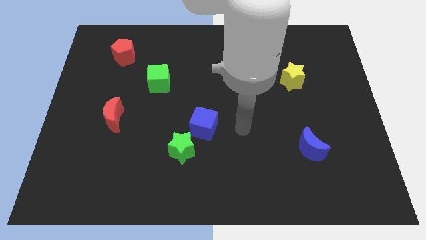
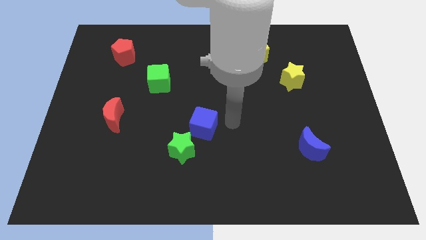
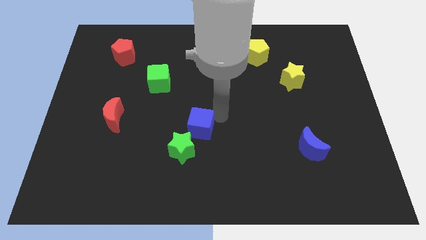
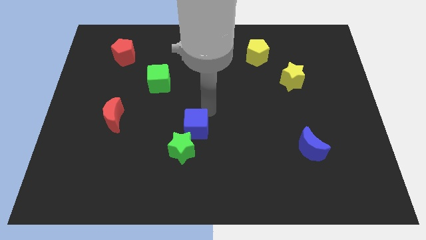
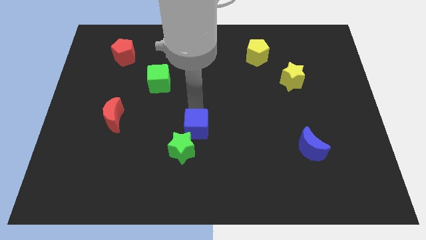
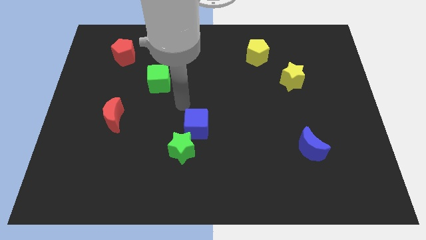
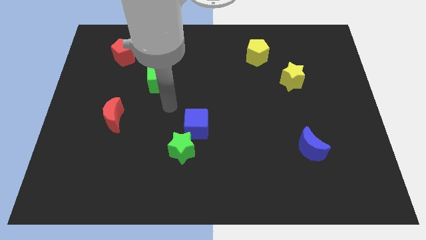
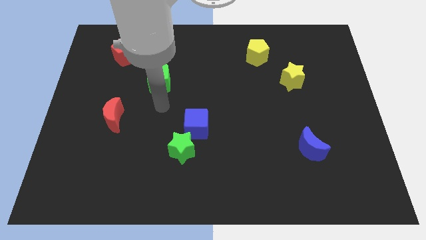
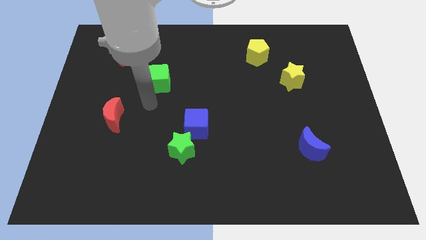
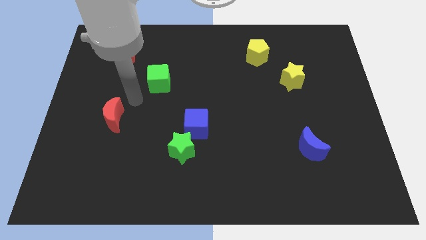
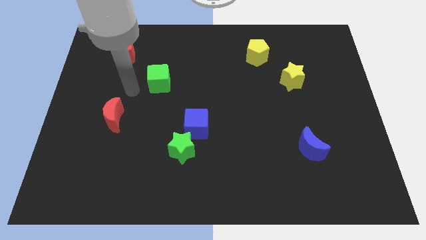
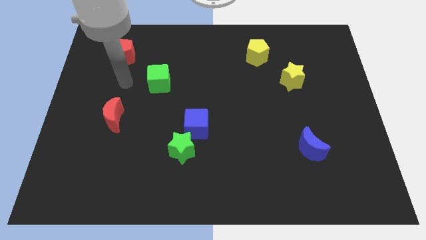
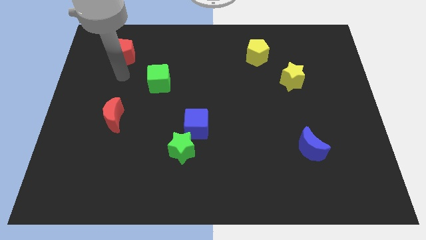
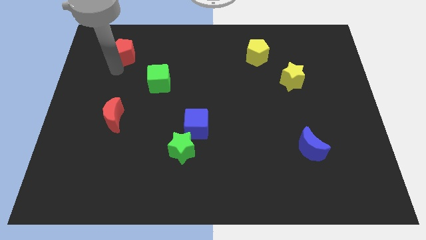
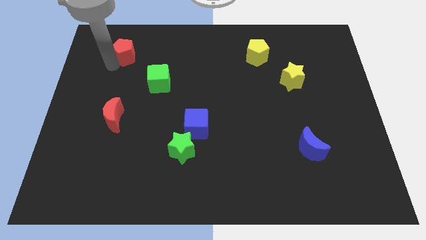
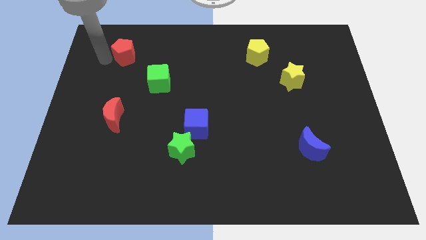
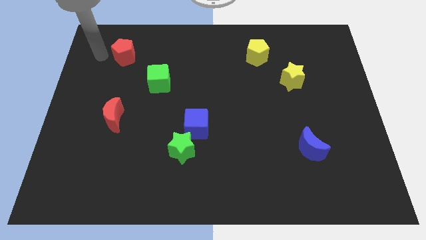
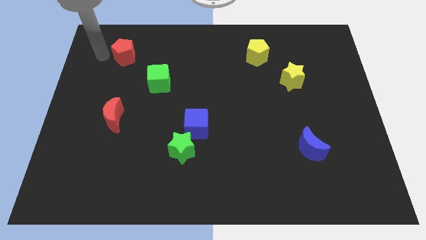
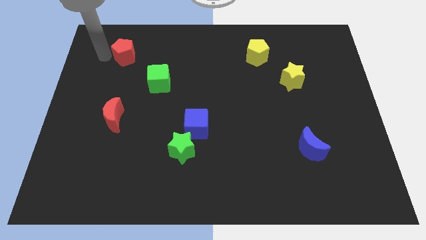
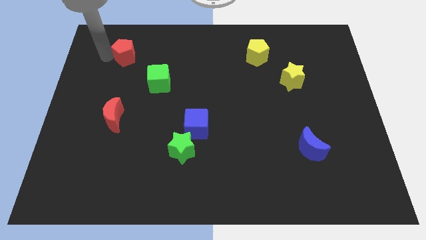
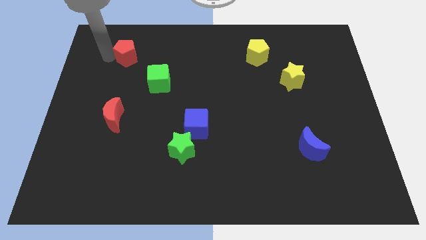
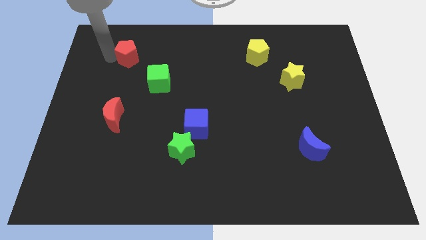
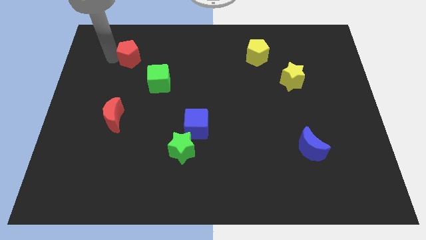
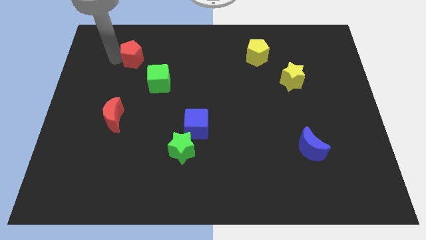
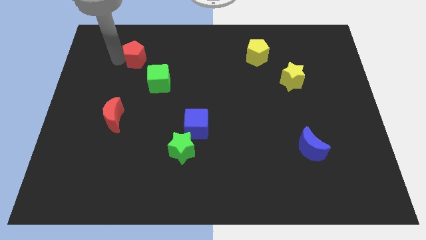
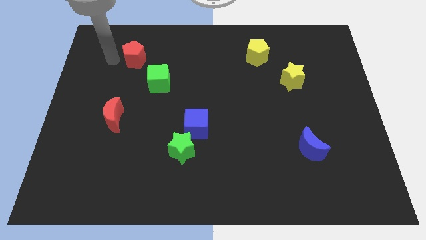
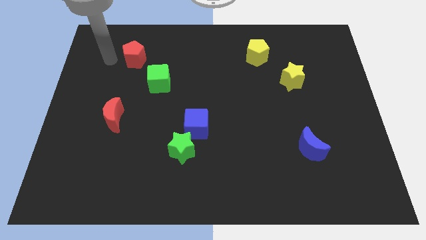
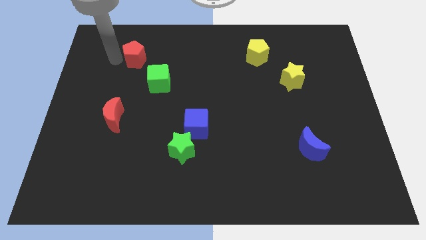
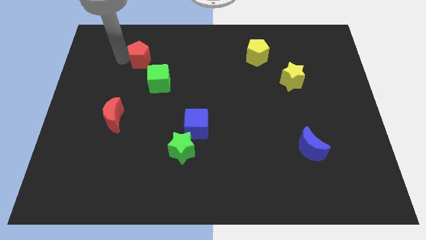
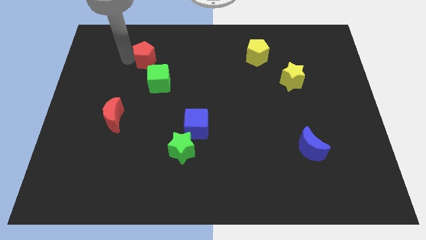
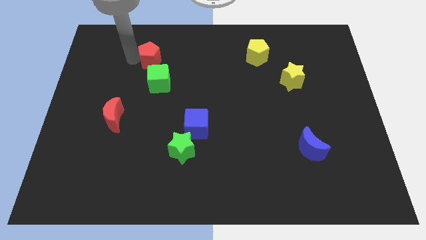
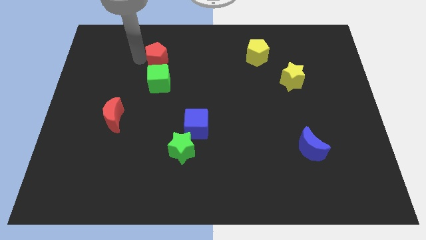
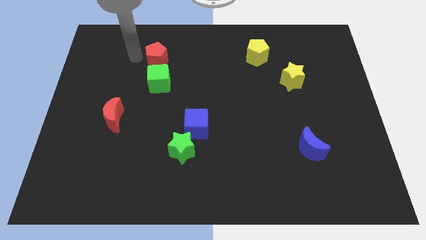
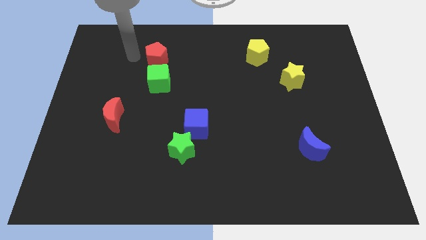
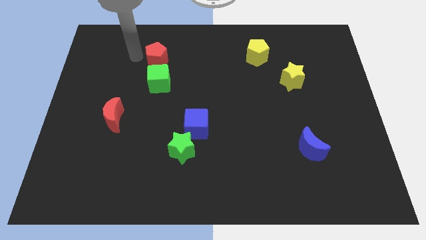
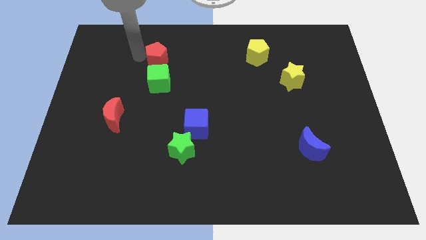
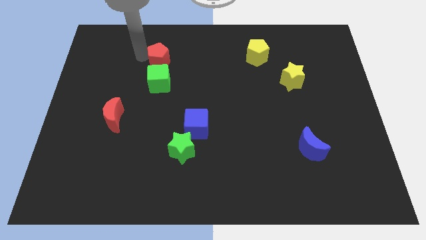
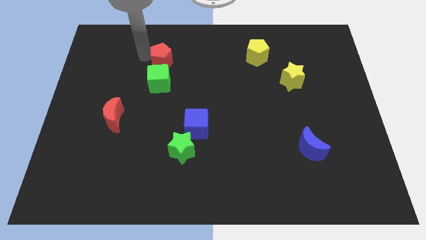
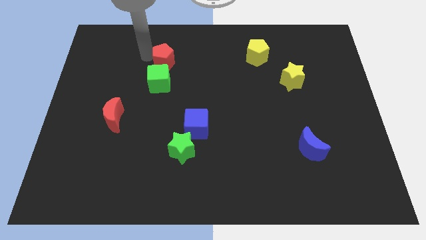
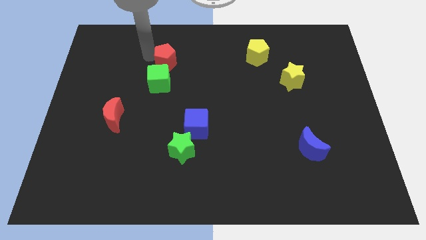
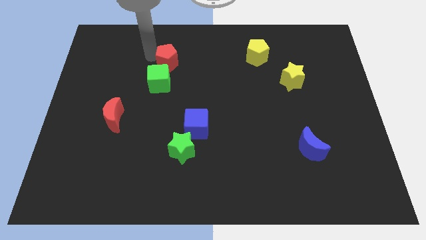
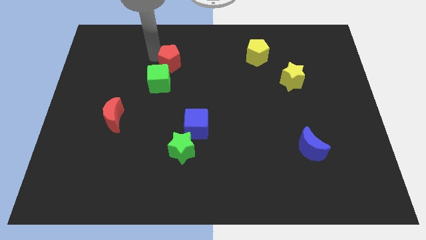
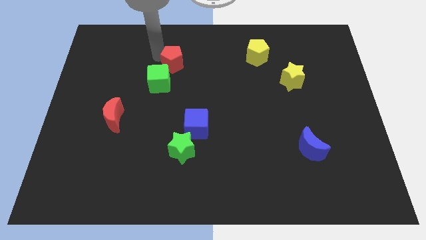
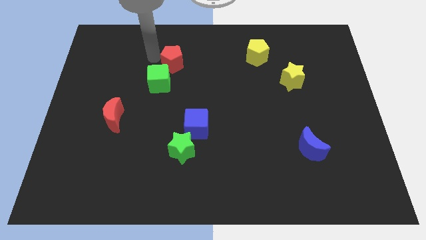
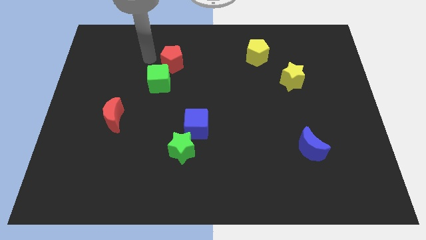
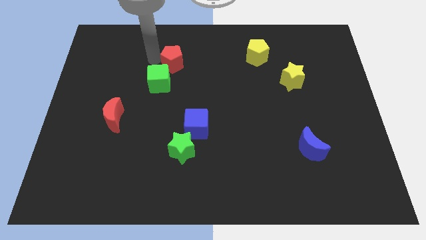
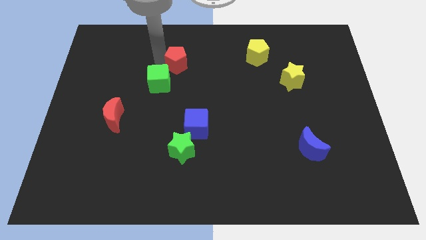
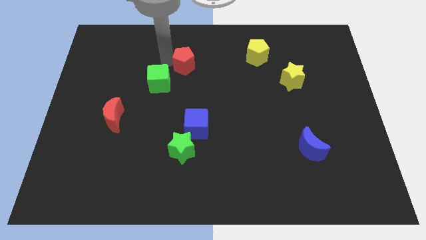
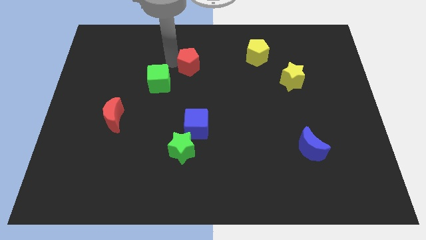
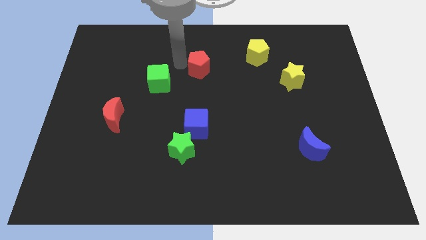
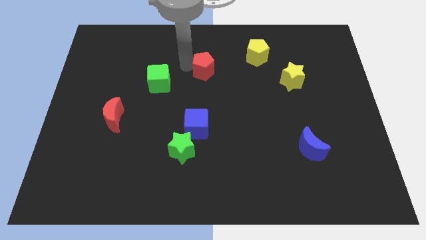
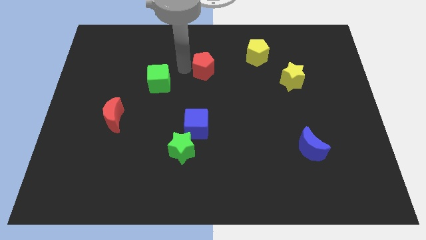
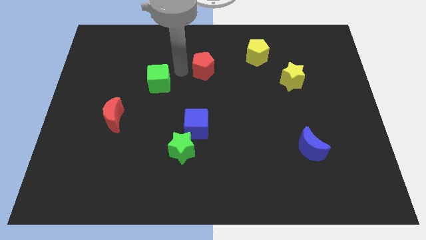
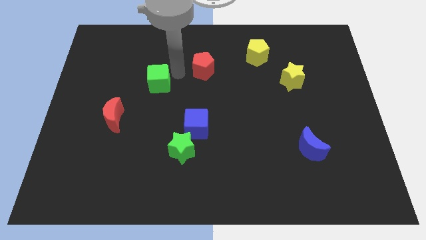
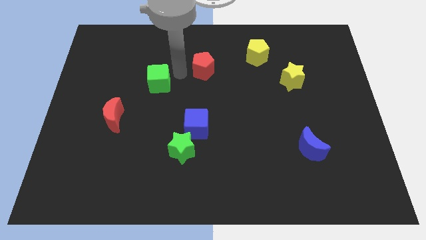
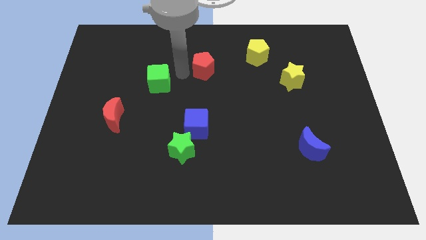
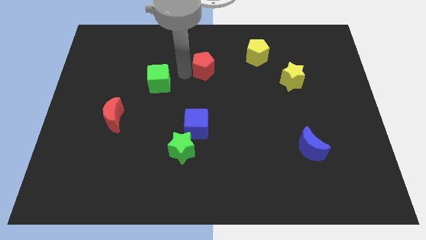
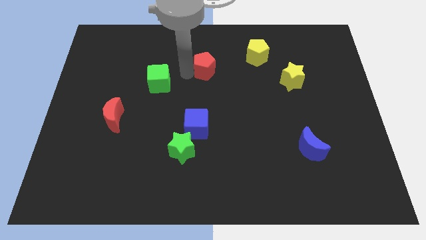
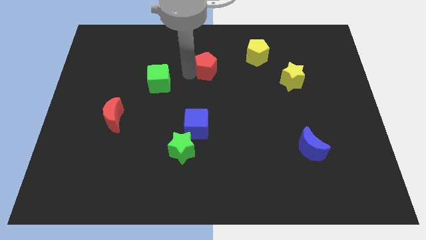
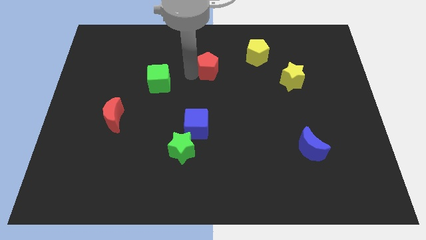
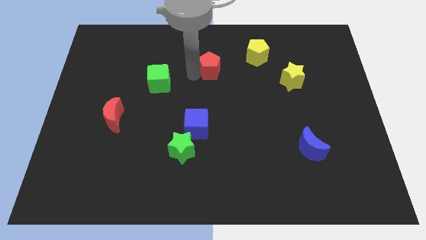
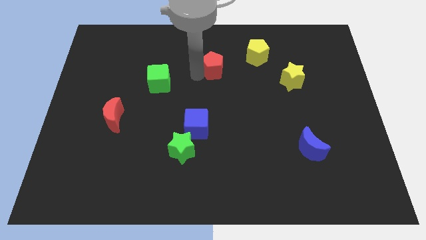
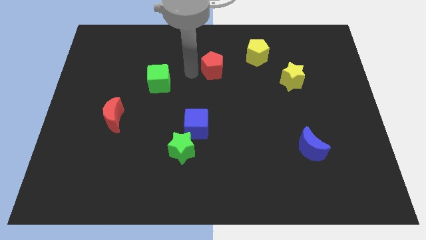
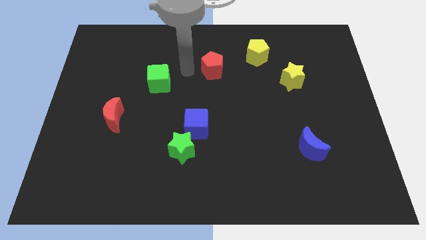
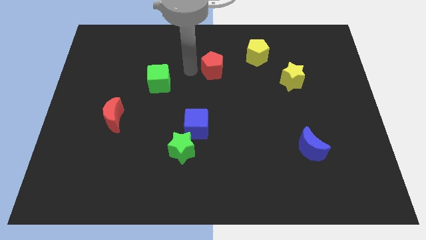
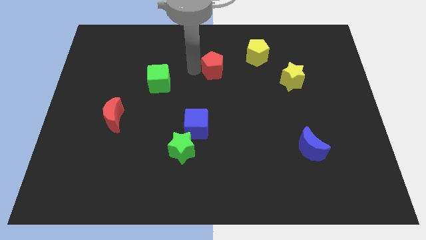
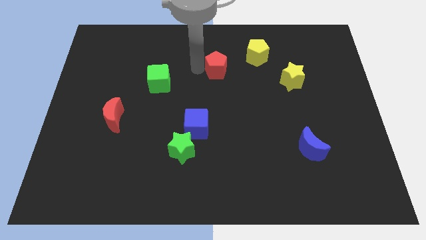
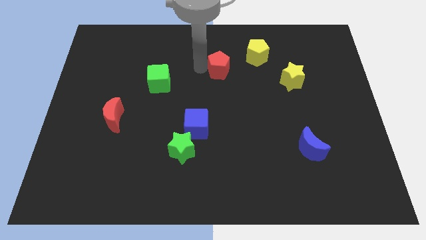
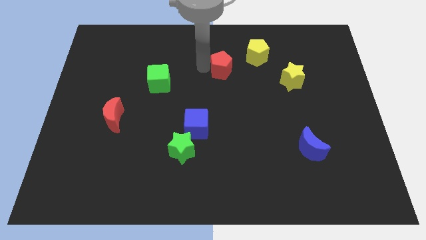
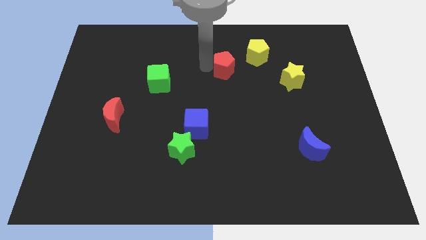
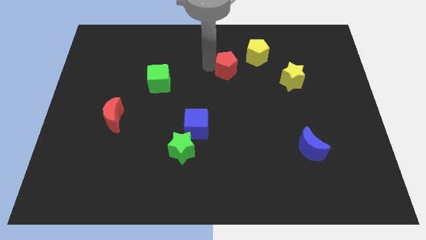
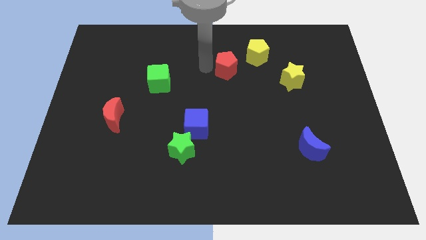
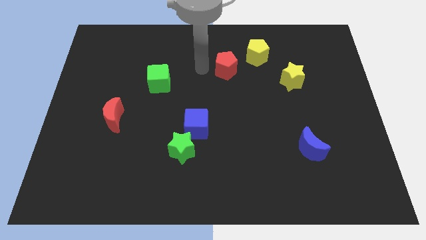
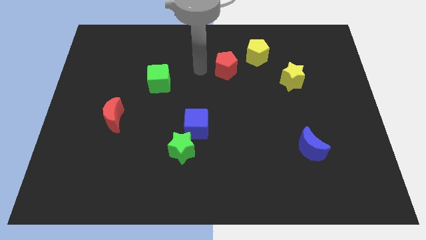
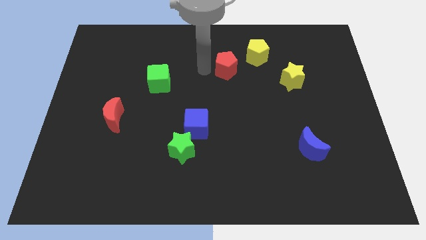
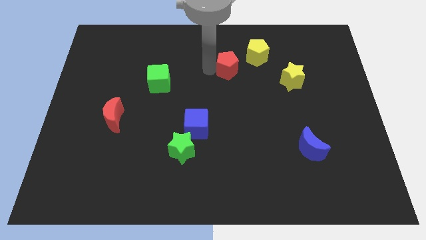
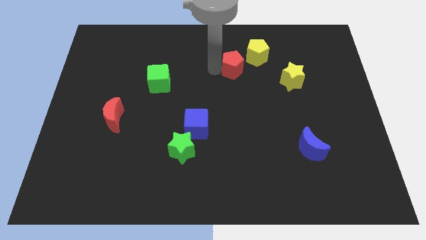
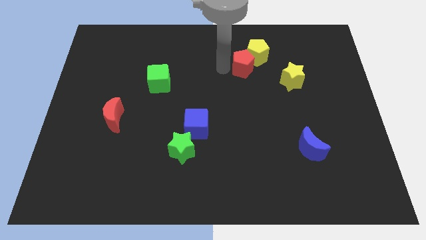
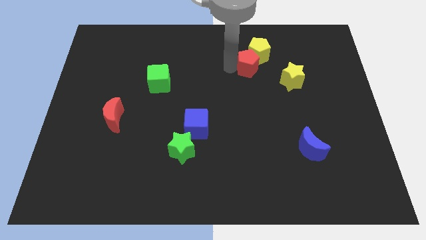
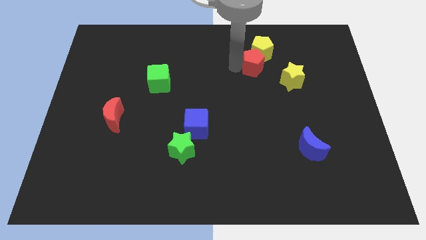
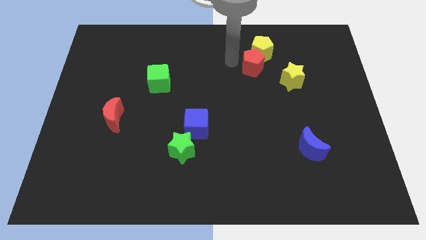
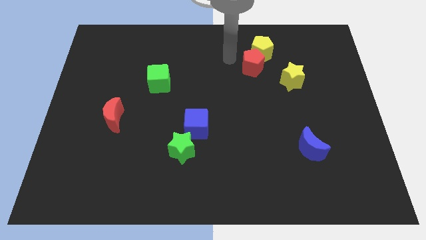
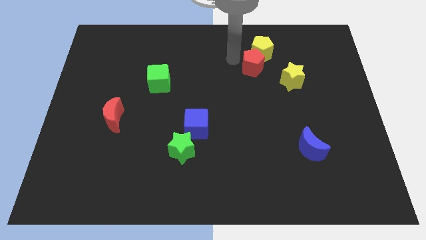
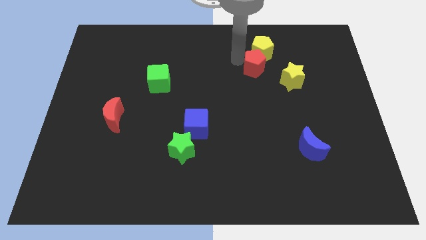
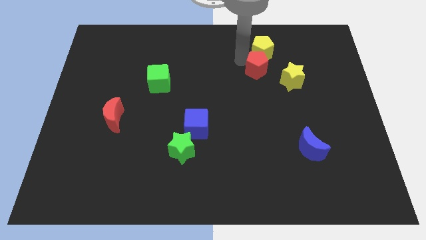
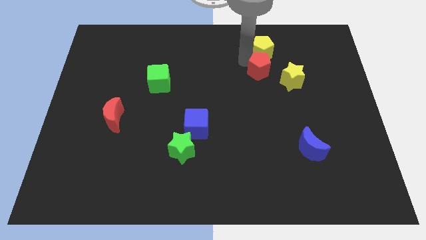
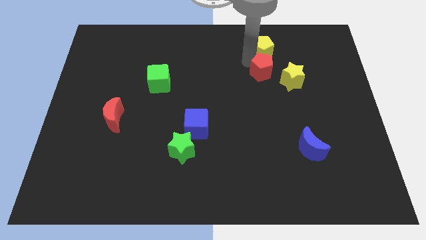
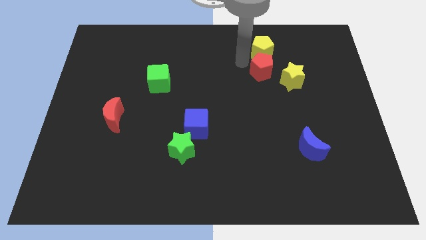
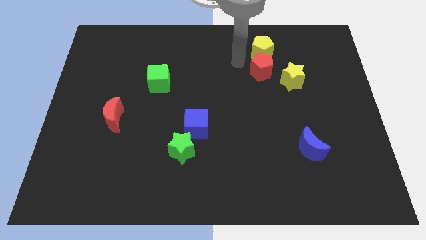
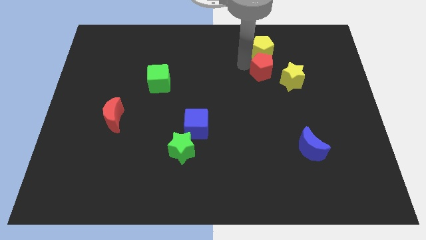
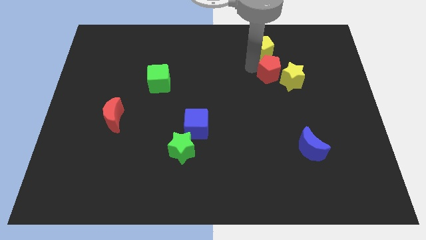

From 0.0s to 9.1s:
move the red pentagon next to the yellow star
